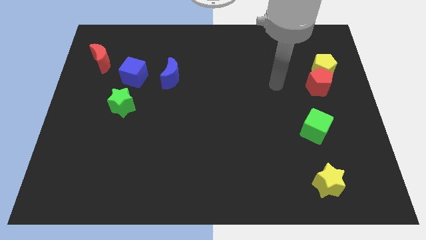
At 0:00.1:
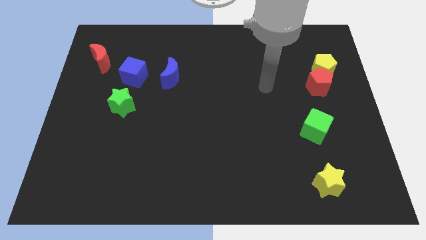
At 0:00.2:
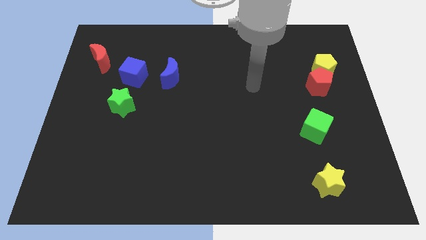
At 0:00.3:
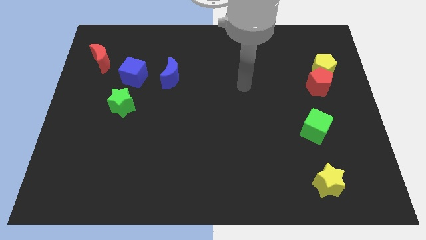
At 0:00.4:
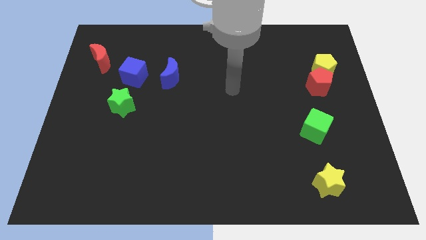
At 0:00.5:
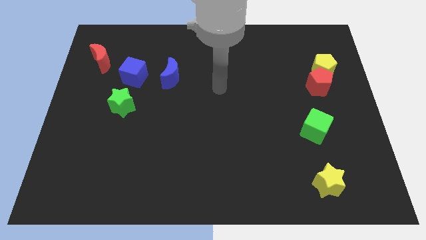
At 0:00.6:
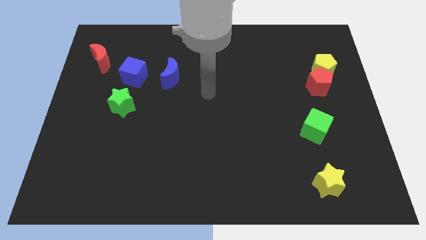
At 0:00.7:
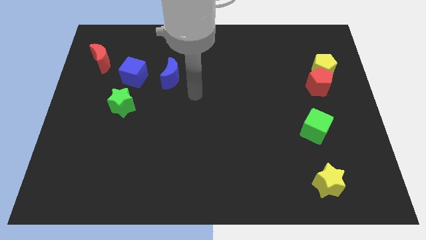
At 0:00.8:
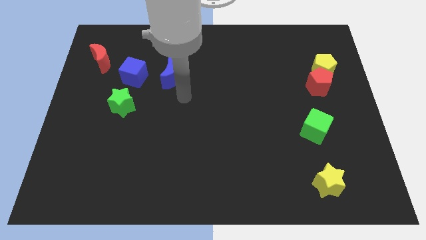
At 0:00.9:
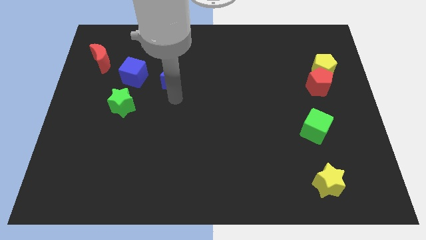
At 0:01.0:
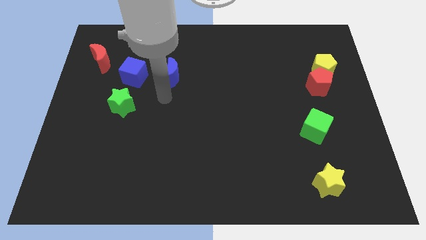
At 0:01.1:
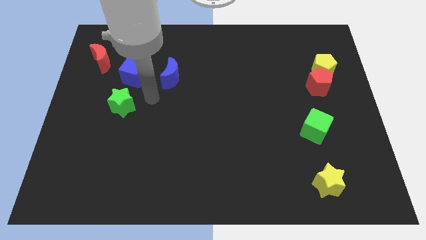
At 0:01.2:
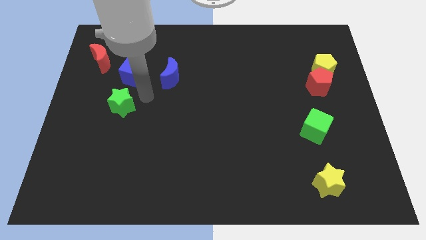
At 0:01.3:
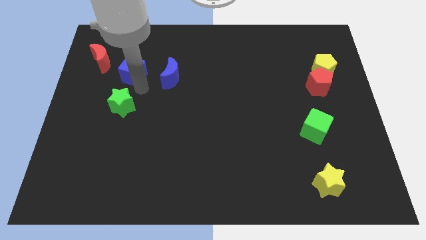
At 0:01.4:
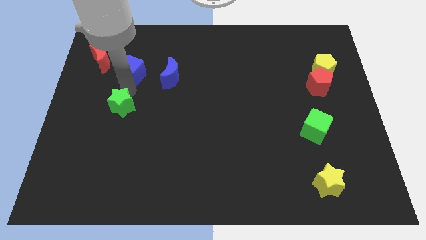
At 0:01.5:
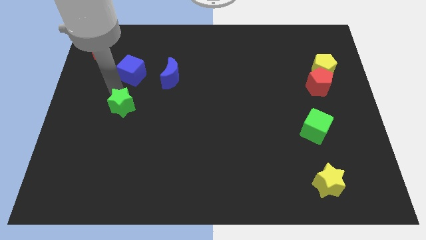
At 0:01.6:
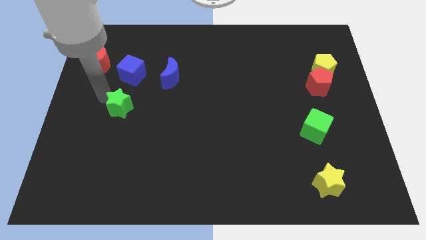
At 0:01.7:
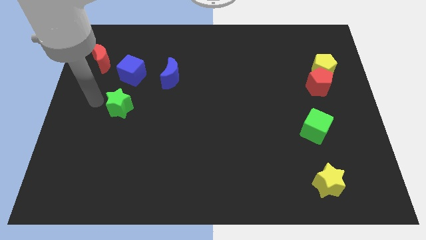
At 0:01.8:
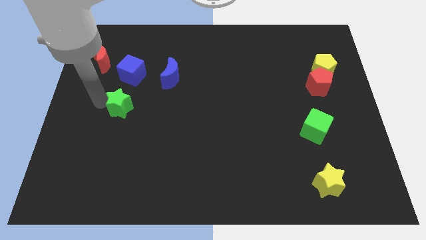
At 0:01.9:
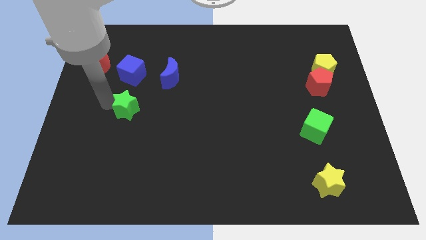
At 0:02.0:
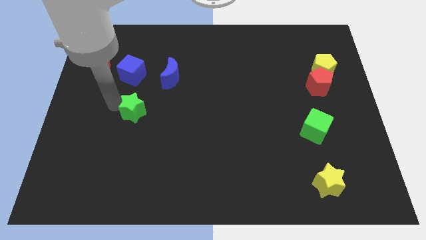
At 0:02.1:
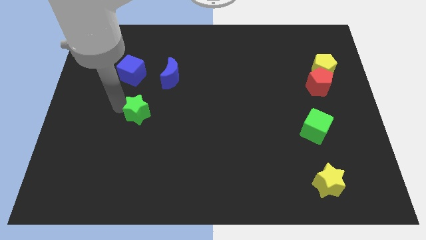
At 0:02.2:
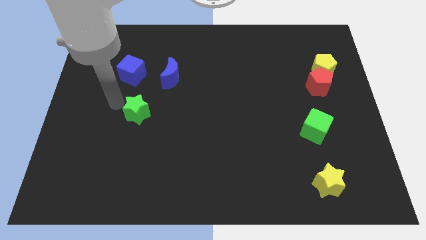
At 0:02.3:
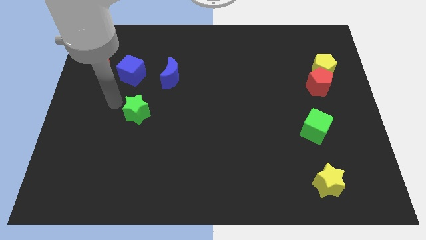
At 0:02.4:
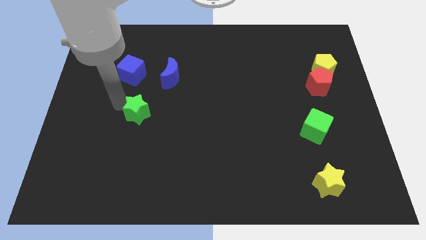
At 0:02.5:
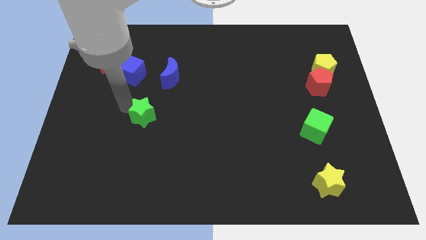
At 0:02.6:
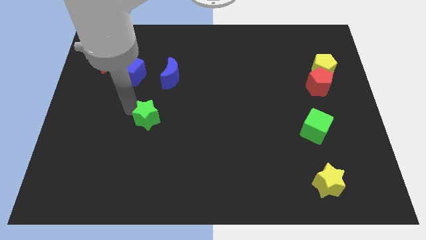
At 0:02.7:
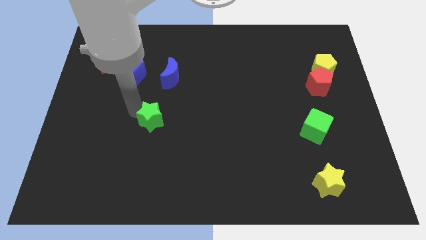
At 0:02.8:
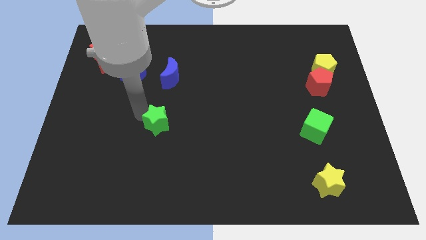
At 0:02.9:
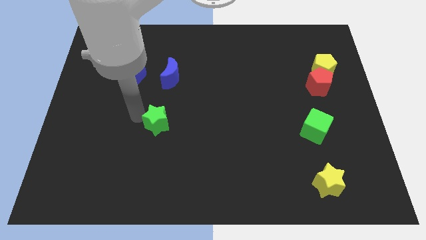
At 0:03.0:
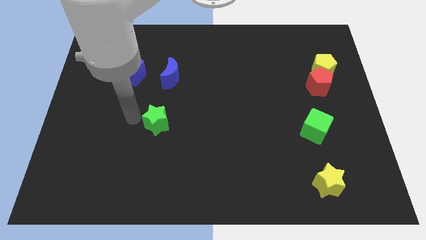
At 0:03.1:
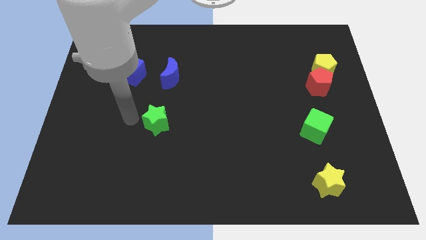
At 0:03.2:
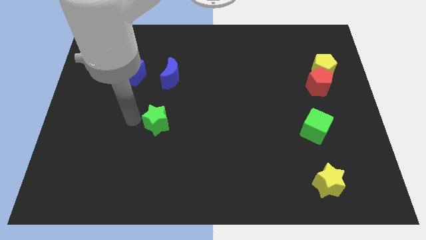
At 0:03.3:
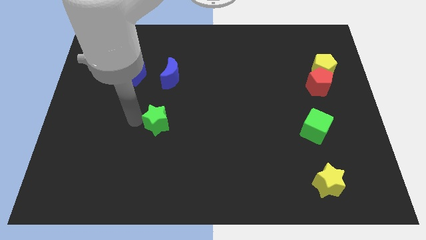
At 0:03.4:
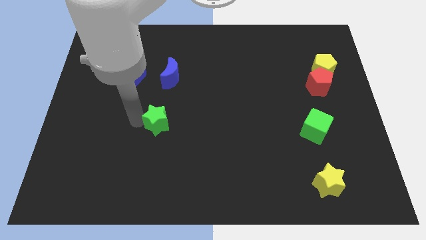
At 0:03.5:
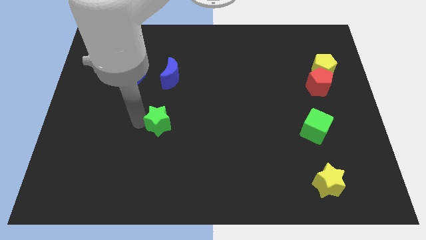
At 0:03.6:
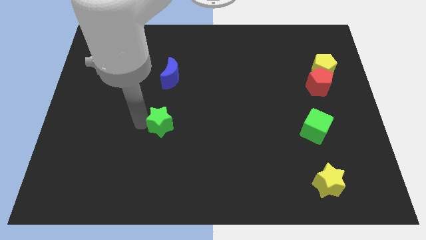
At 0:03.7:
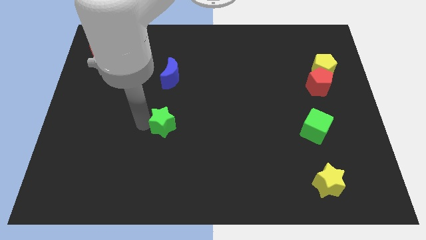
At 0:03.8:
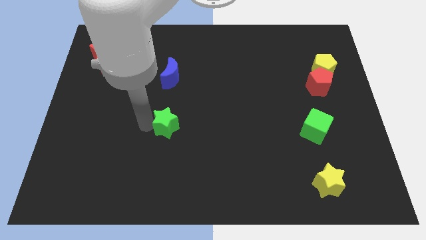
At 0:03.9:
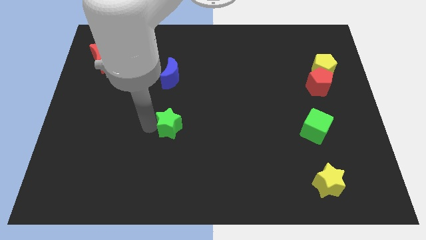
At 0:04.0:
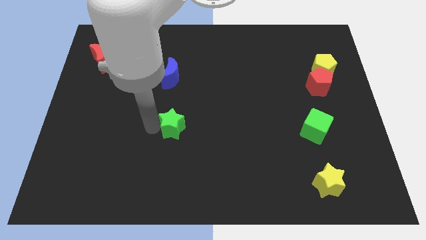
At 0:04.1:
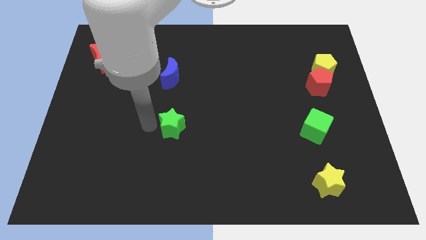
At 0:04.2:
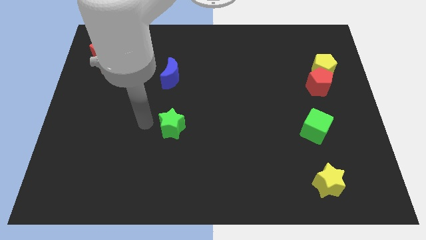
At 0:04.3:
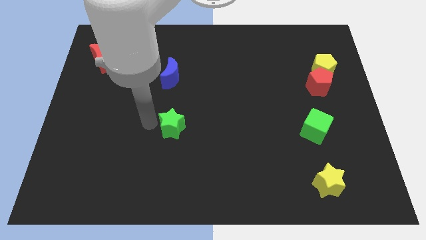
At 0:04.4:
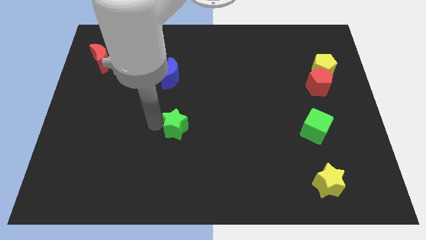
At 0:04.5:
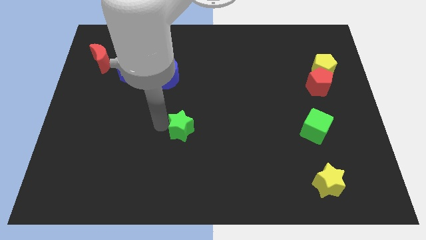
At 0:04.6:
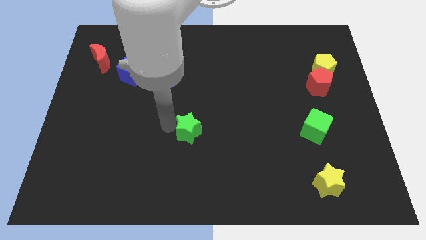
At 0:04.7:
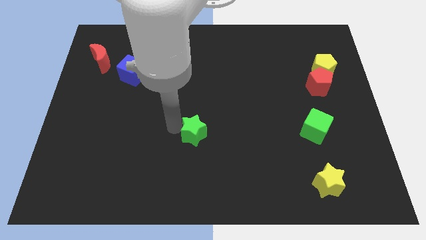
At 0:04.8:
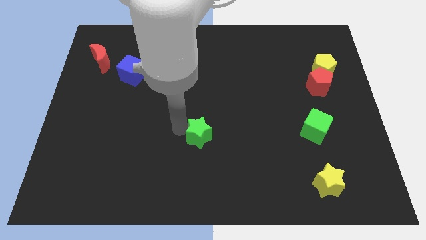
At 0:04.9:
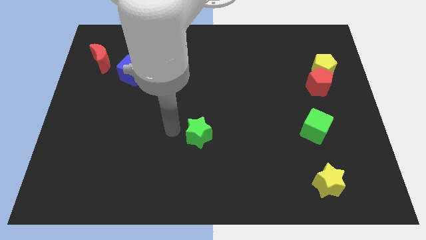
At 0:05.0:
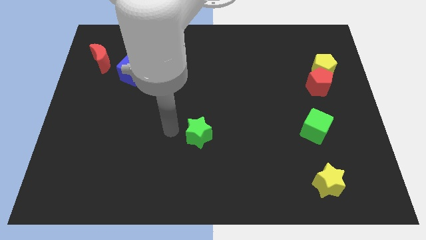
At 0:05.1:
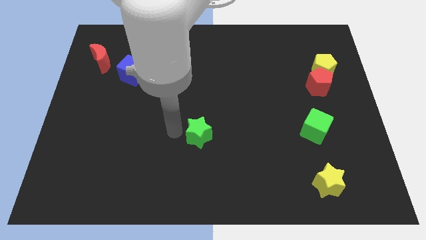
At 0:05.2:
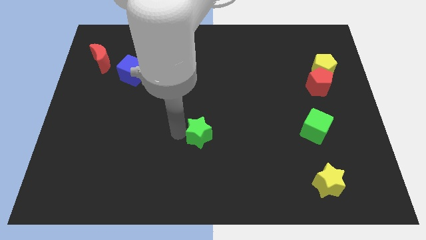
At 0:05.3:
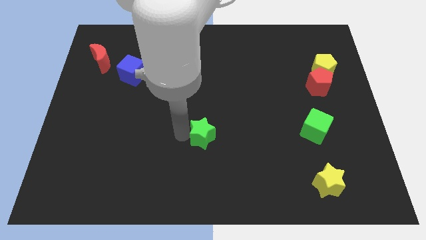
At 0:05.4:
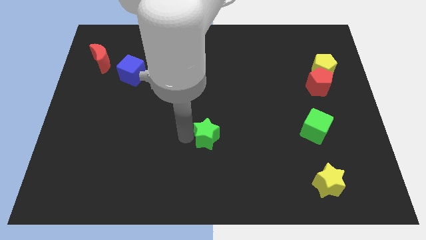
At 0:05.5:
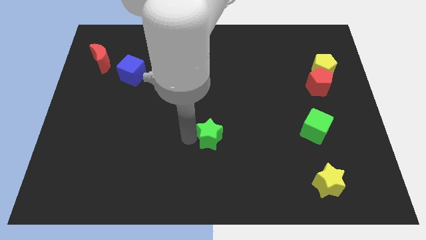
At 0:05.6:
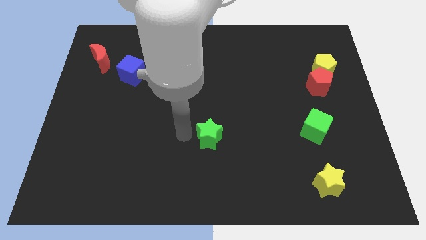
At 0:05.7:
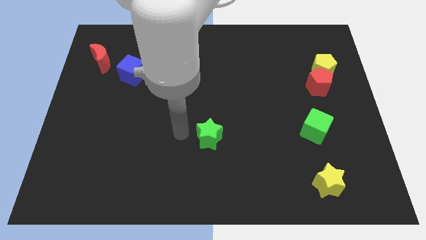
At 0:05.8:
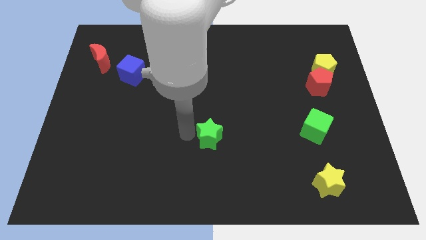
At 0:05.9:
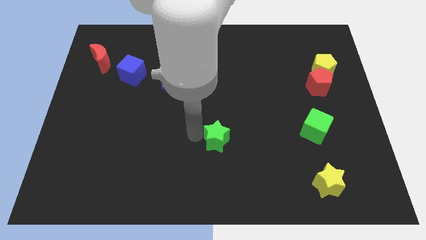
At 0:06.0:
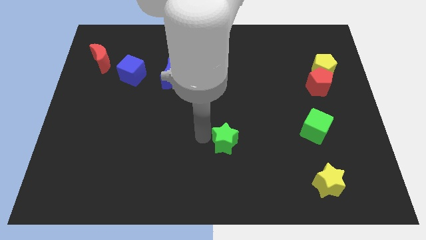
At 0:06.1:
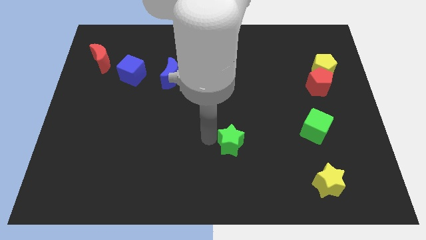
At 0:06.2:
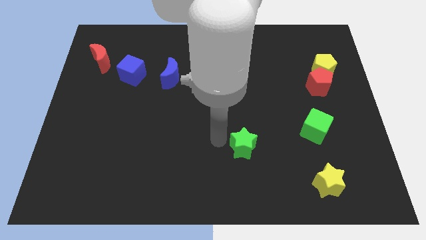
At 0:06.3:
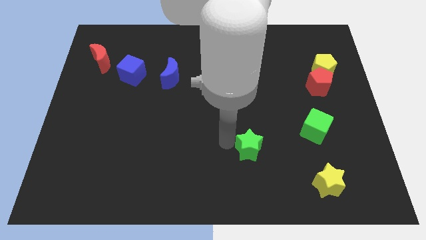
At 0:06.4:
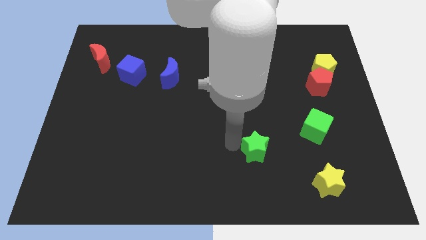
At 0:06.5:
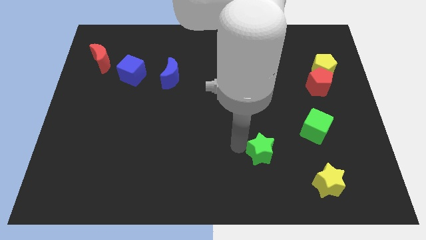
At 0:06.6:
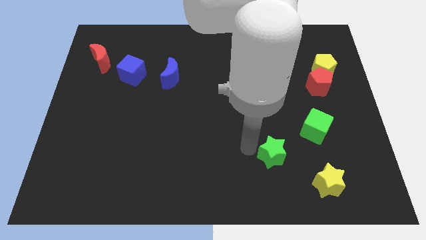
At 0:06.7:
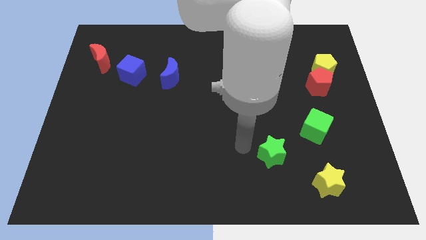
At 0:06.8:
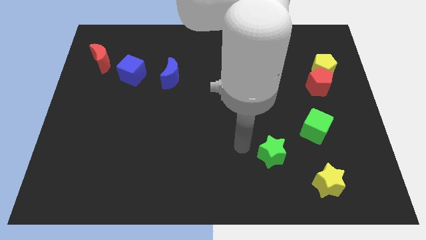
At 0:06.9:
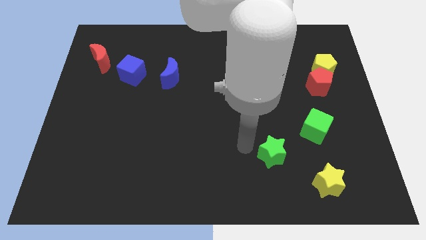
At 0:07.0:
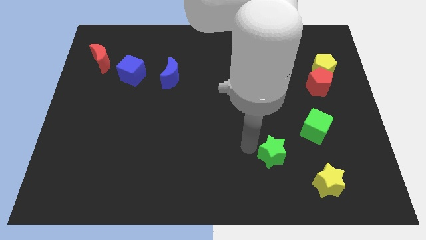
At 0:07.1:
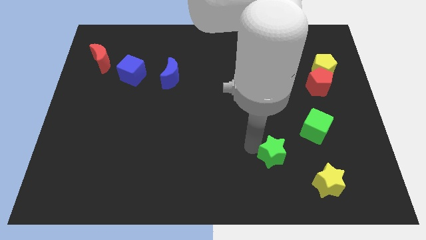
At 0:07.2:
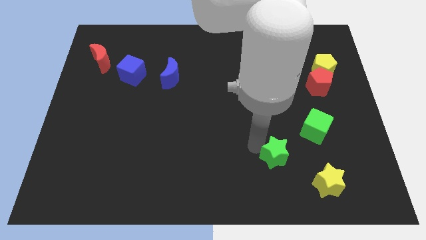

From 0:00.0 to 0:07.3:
push the green star to the top left of the yellow star

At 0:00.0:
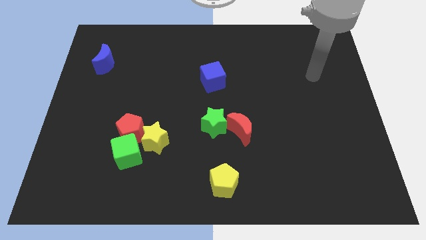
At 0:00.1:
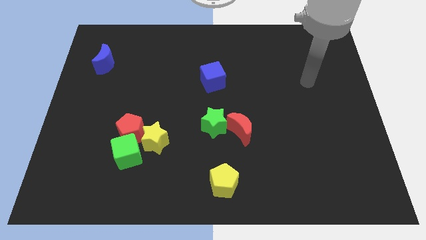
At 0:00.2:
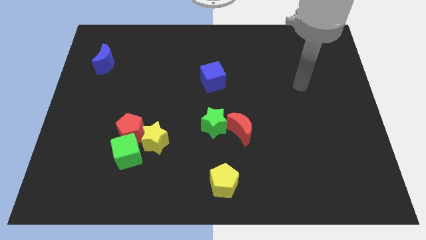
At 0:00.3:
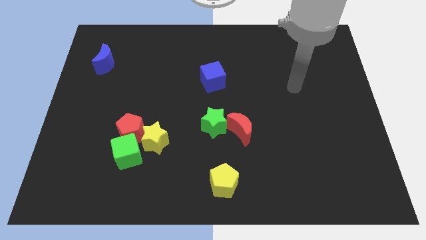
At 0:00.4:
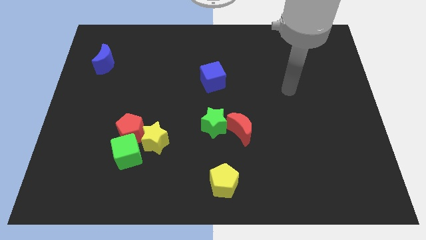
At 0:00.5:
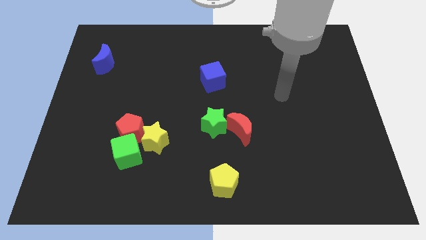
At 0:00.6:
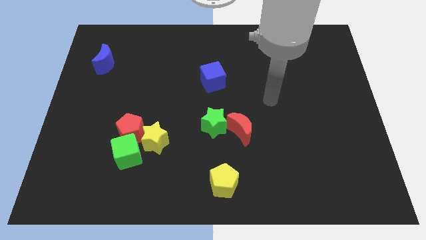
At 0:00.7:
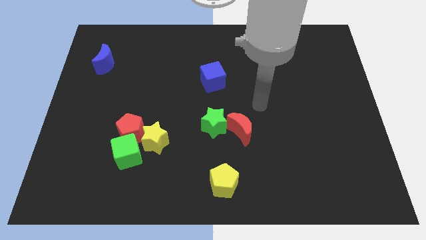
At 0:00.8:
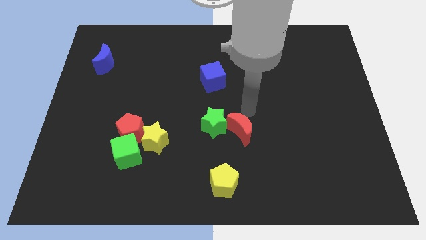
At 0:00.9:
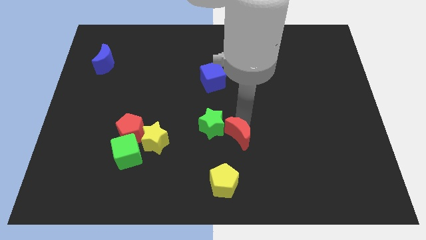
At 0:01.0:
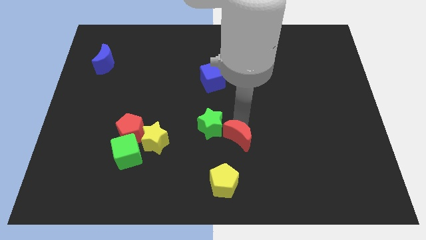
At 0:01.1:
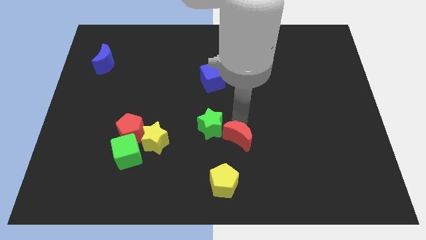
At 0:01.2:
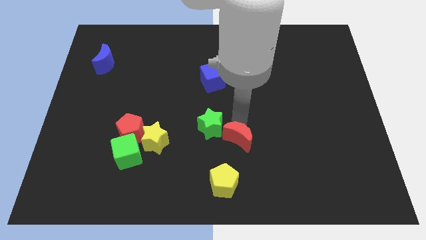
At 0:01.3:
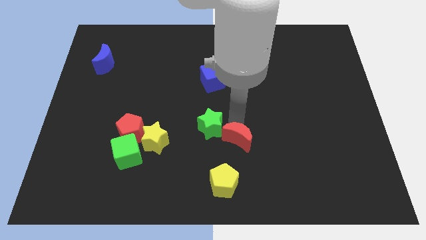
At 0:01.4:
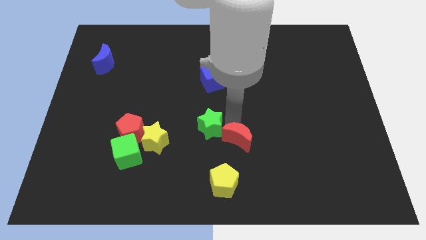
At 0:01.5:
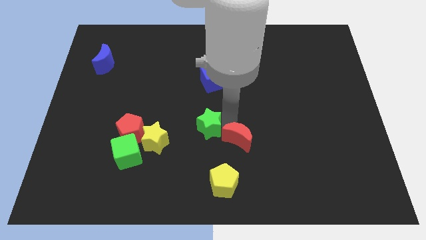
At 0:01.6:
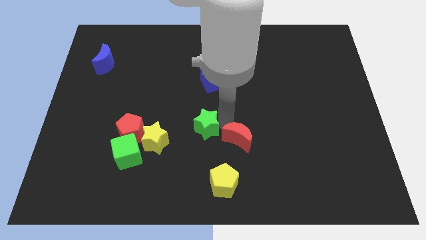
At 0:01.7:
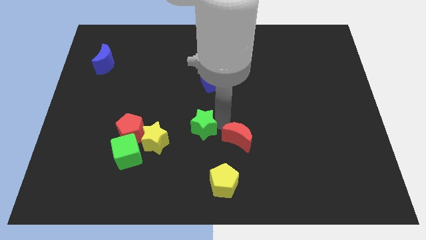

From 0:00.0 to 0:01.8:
move the green star just right of the red pentagon
